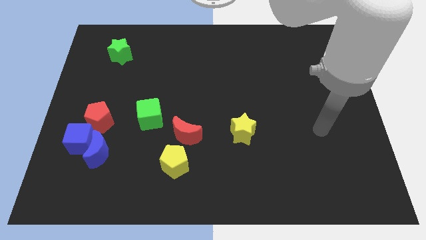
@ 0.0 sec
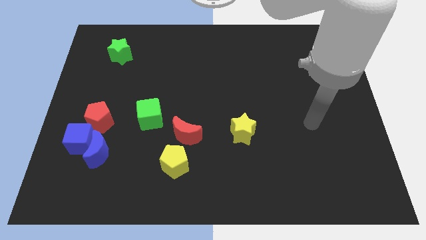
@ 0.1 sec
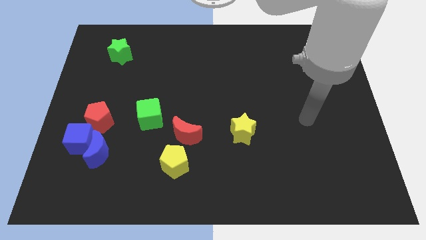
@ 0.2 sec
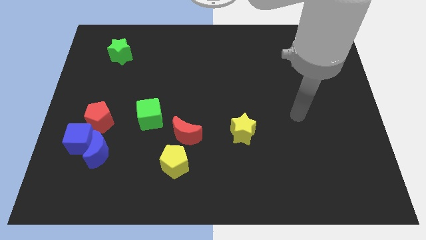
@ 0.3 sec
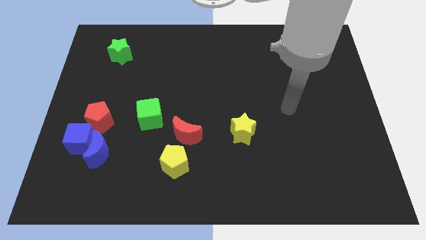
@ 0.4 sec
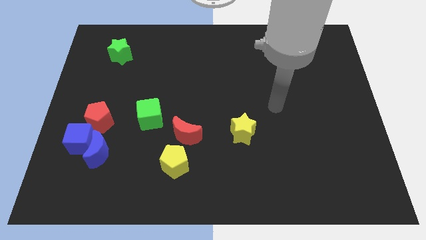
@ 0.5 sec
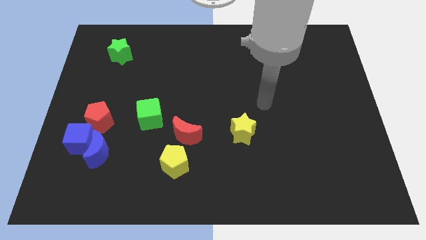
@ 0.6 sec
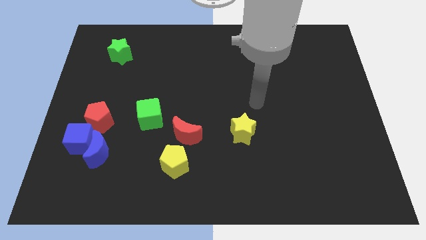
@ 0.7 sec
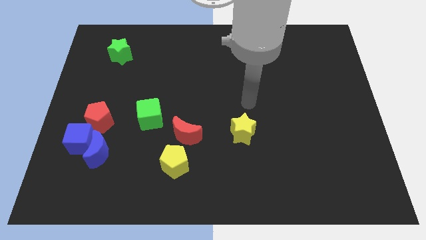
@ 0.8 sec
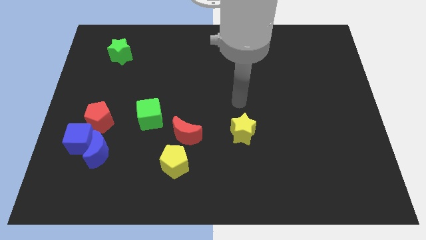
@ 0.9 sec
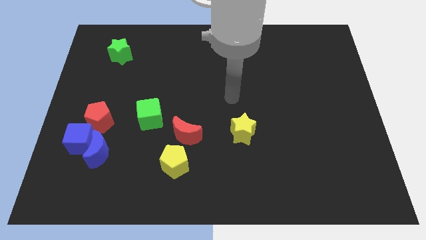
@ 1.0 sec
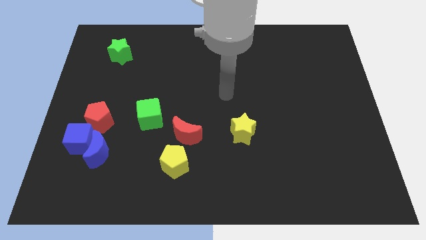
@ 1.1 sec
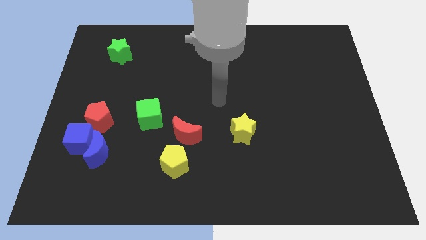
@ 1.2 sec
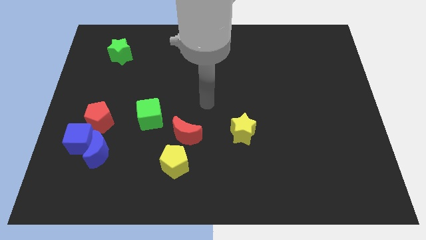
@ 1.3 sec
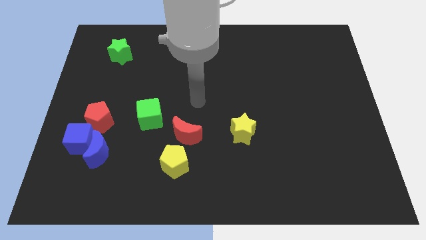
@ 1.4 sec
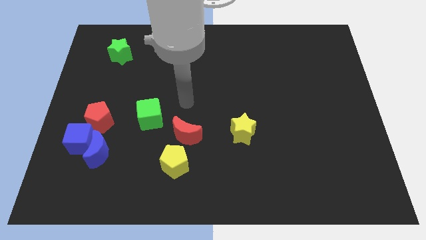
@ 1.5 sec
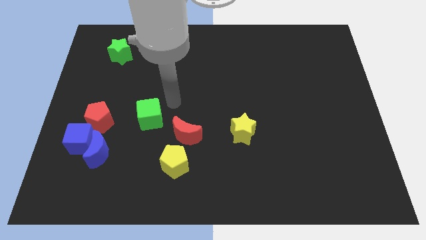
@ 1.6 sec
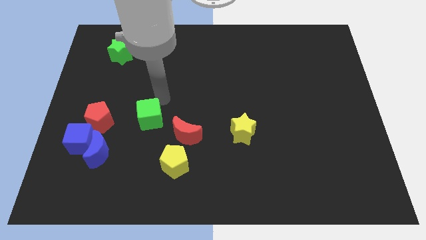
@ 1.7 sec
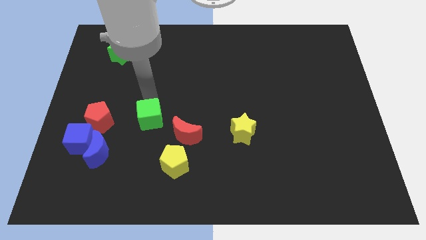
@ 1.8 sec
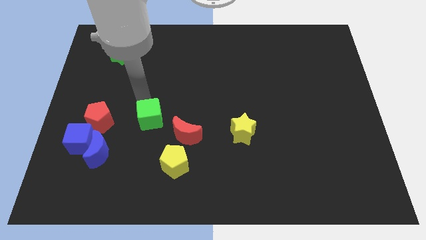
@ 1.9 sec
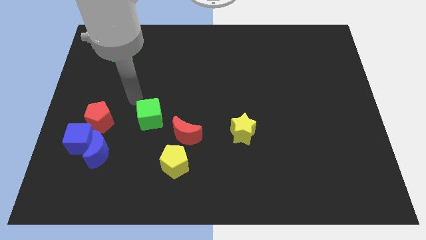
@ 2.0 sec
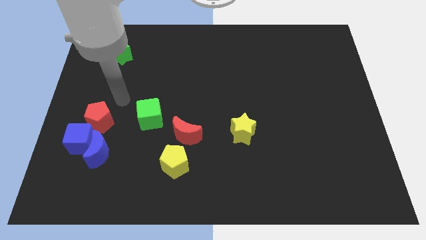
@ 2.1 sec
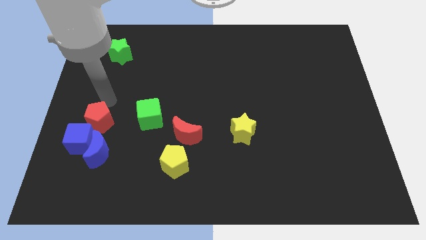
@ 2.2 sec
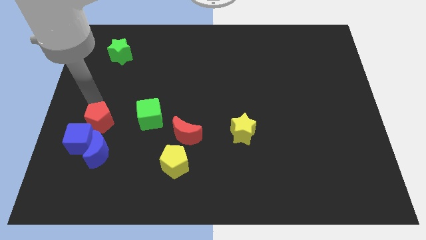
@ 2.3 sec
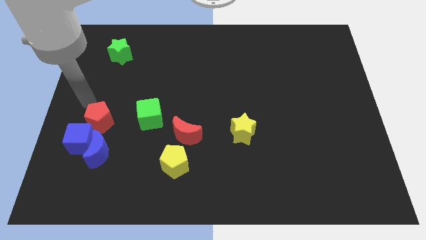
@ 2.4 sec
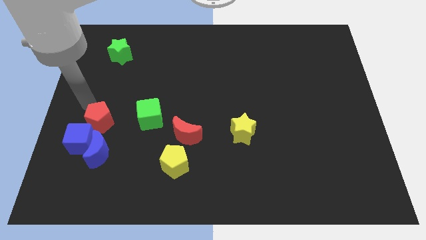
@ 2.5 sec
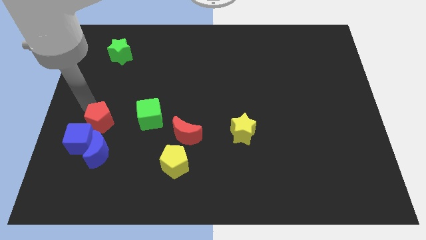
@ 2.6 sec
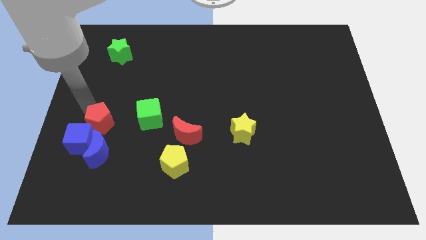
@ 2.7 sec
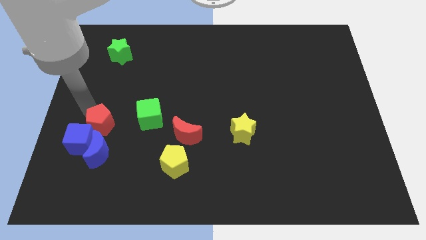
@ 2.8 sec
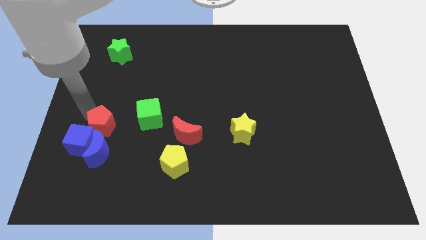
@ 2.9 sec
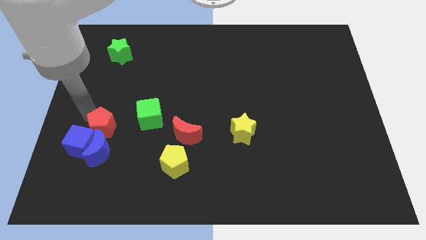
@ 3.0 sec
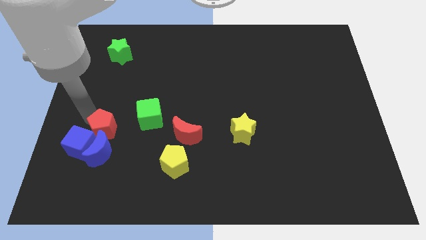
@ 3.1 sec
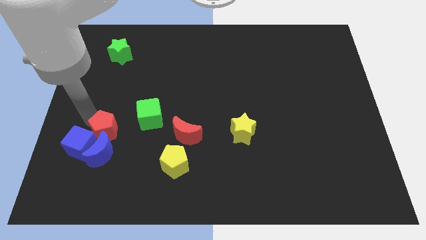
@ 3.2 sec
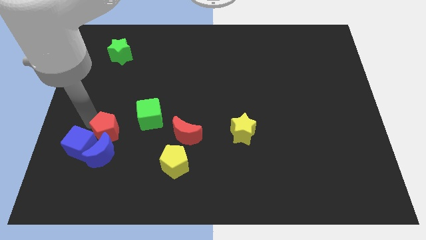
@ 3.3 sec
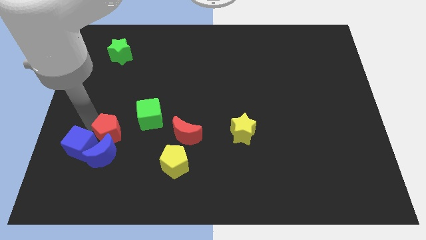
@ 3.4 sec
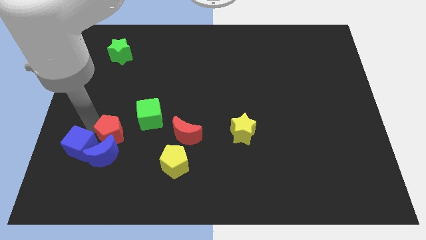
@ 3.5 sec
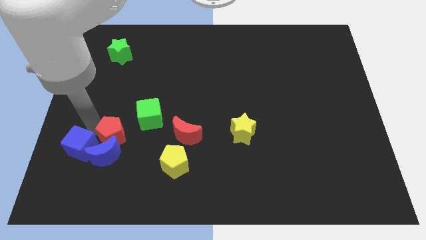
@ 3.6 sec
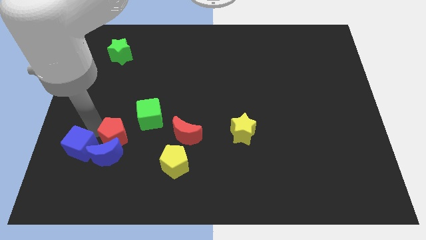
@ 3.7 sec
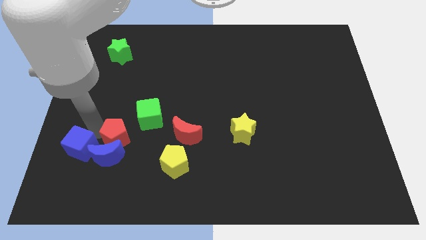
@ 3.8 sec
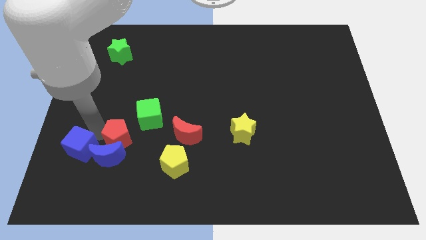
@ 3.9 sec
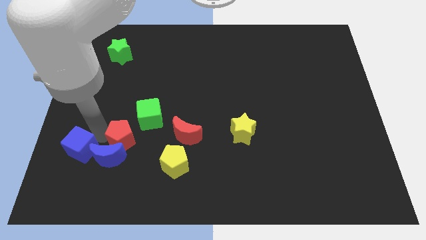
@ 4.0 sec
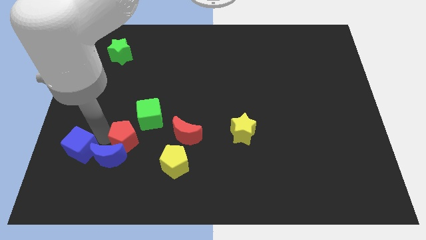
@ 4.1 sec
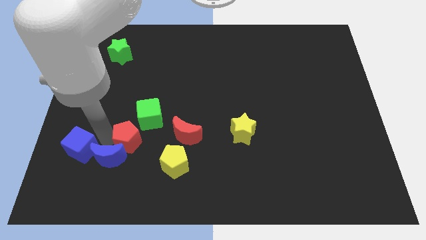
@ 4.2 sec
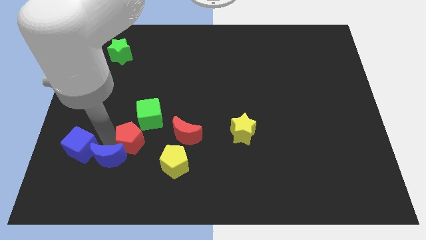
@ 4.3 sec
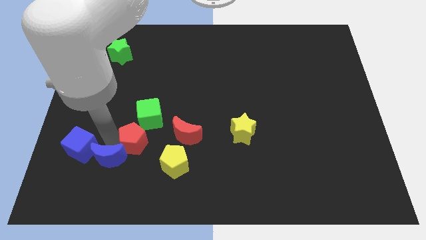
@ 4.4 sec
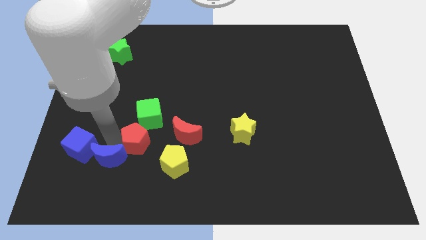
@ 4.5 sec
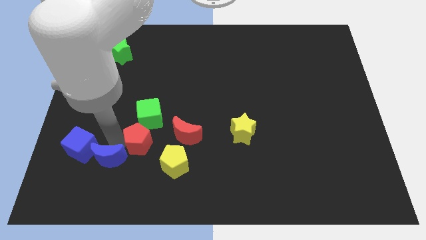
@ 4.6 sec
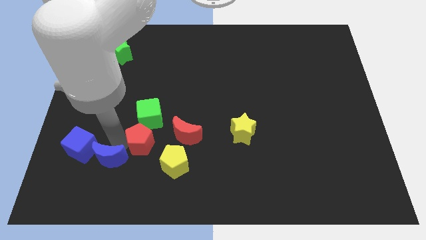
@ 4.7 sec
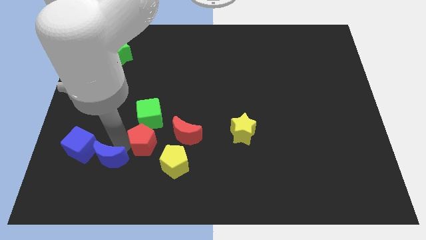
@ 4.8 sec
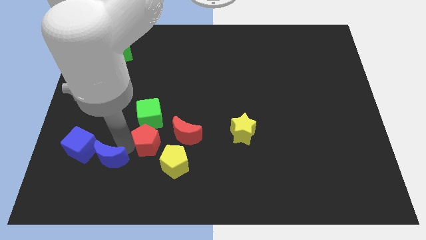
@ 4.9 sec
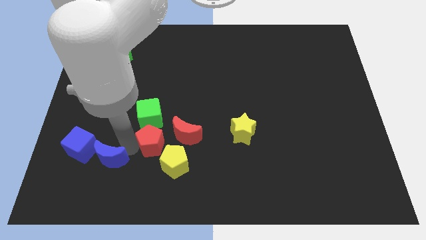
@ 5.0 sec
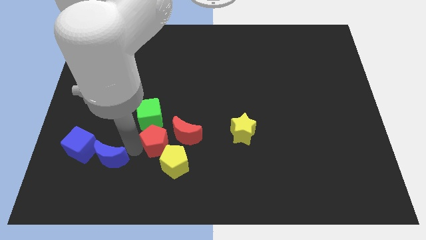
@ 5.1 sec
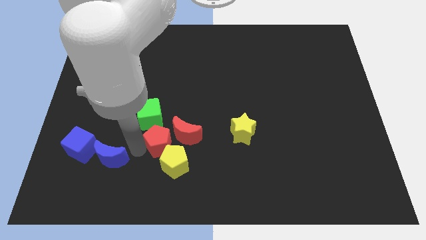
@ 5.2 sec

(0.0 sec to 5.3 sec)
put the red pentagon next to the red moon

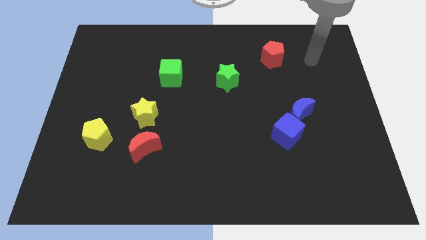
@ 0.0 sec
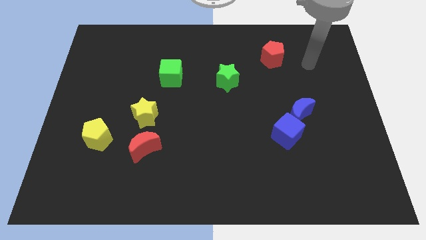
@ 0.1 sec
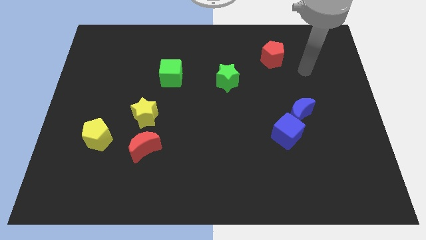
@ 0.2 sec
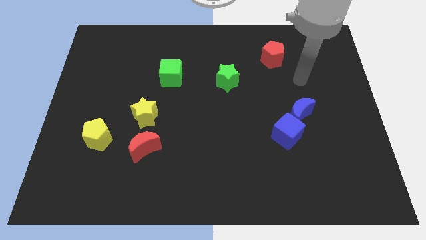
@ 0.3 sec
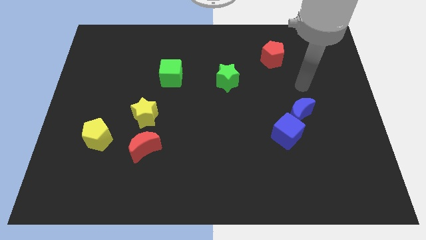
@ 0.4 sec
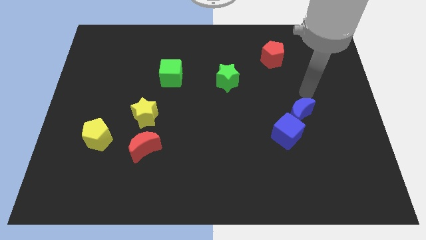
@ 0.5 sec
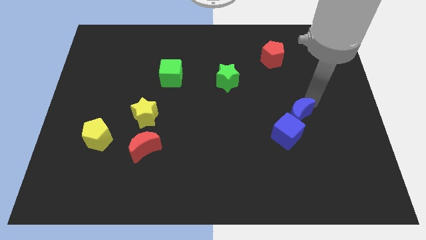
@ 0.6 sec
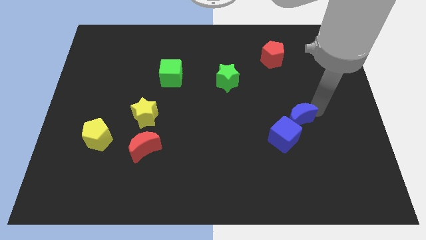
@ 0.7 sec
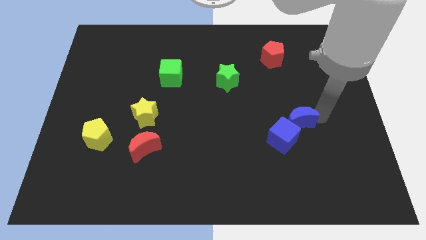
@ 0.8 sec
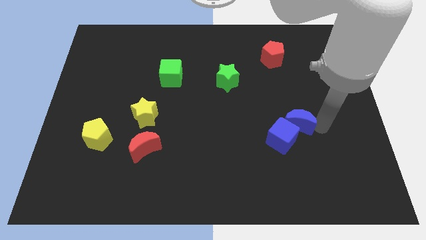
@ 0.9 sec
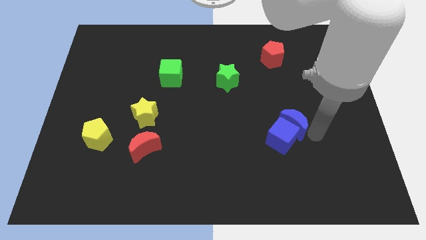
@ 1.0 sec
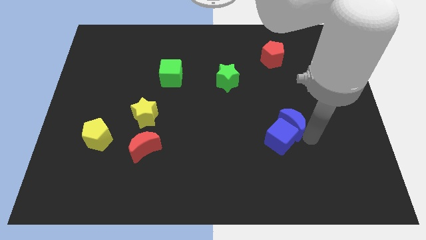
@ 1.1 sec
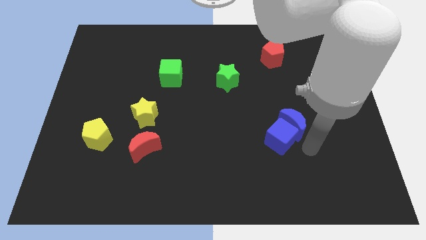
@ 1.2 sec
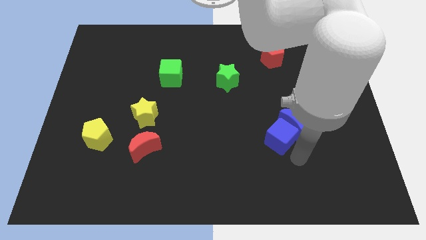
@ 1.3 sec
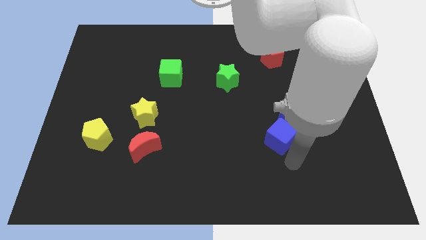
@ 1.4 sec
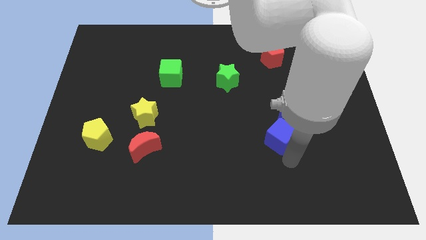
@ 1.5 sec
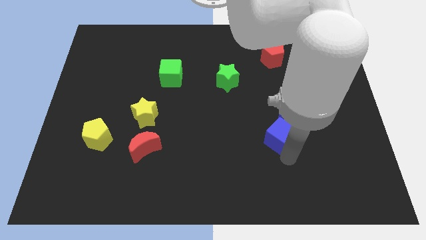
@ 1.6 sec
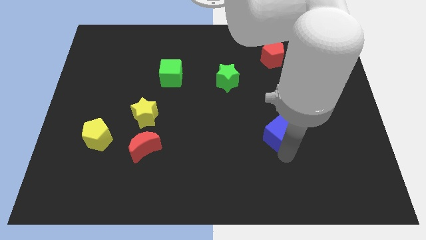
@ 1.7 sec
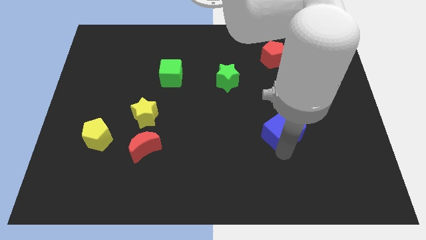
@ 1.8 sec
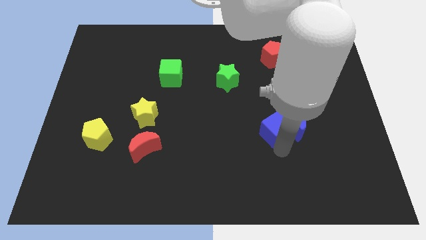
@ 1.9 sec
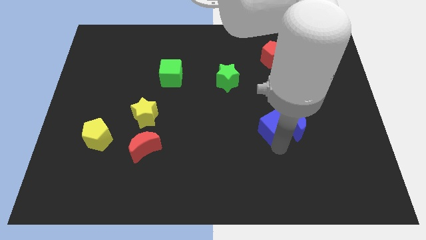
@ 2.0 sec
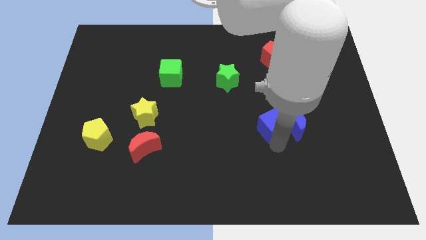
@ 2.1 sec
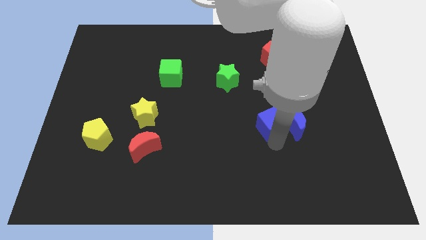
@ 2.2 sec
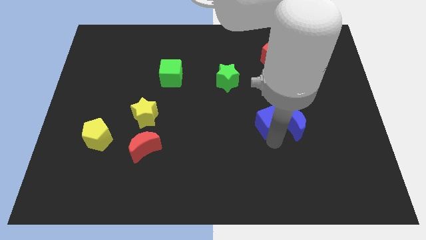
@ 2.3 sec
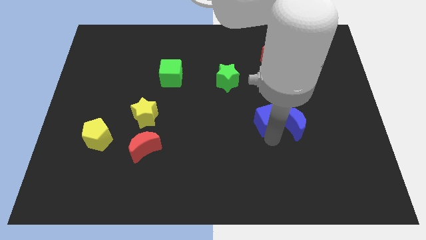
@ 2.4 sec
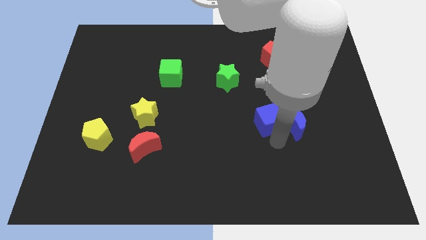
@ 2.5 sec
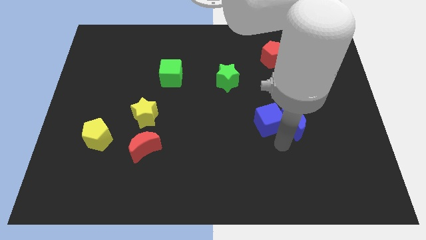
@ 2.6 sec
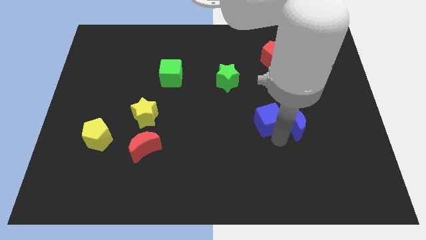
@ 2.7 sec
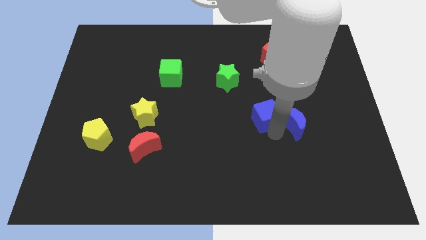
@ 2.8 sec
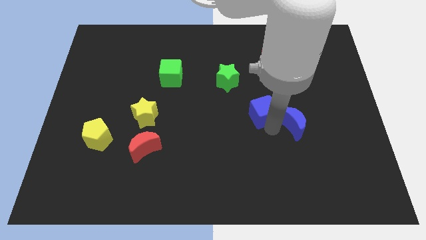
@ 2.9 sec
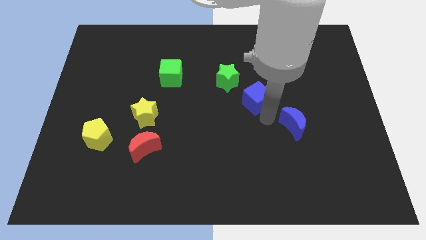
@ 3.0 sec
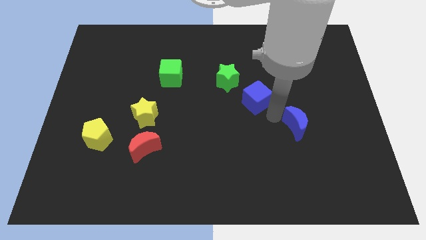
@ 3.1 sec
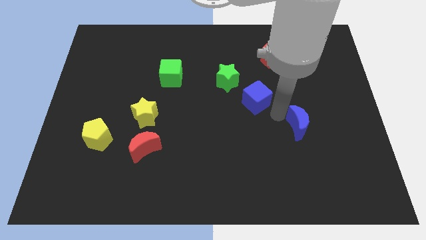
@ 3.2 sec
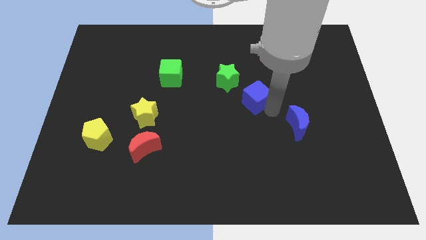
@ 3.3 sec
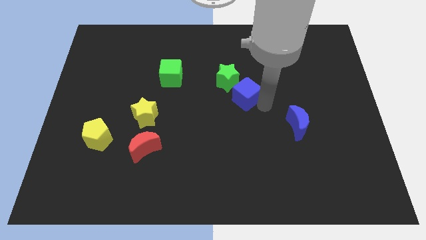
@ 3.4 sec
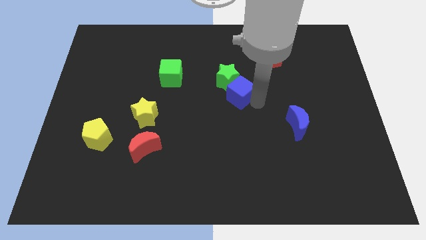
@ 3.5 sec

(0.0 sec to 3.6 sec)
move the blue cube to the green star
